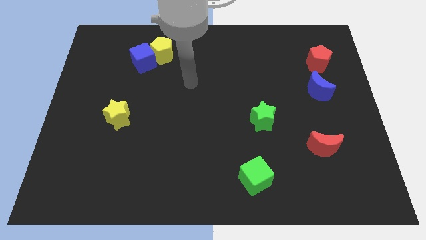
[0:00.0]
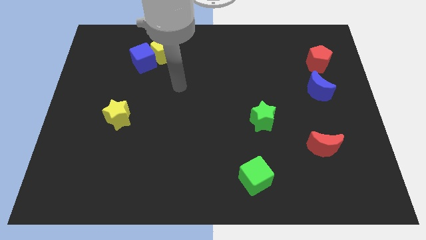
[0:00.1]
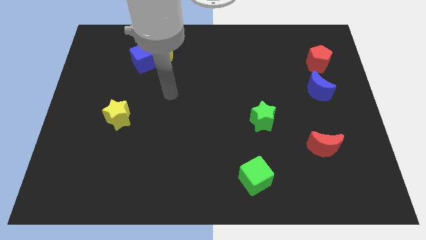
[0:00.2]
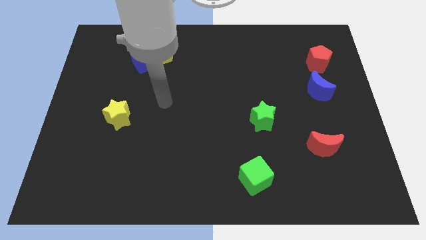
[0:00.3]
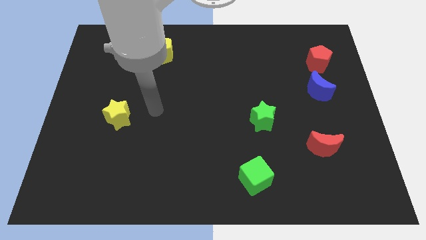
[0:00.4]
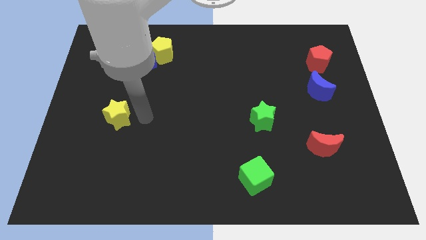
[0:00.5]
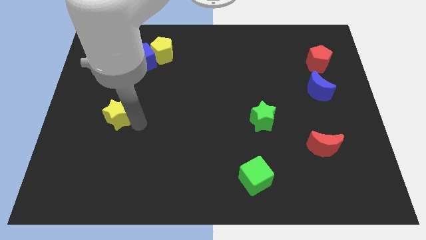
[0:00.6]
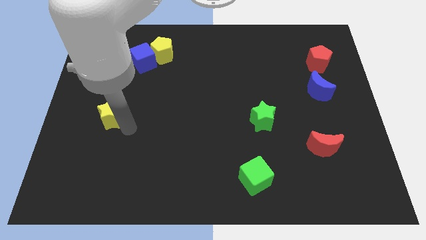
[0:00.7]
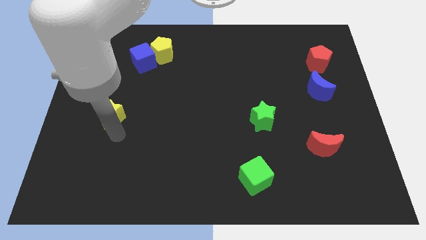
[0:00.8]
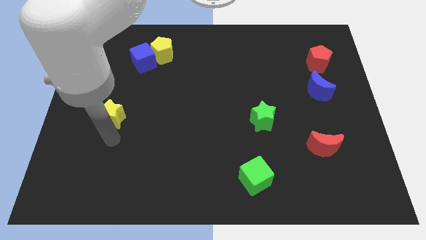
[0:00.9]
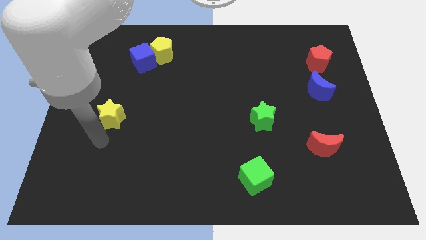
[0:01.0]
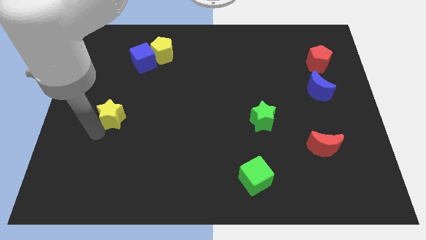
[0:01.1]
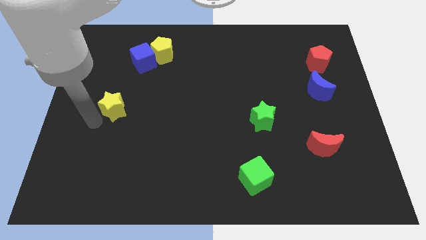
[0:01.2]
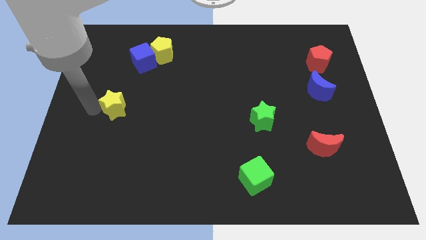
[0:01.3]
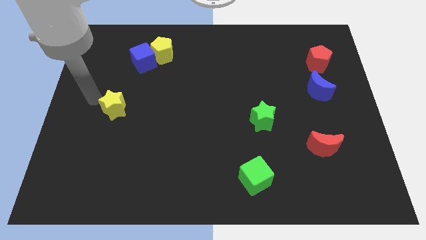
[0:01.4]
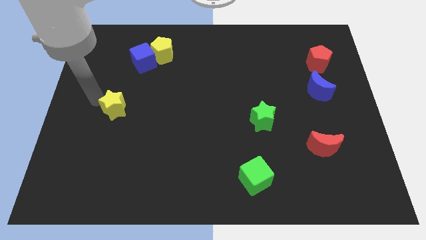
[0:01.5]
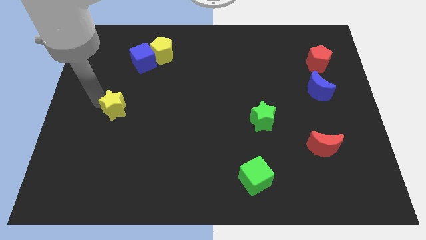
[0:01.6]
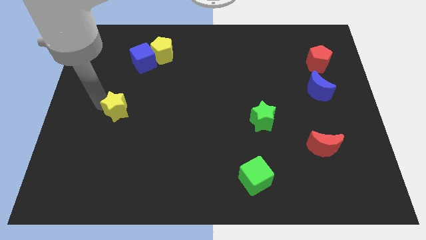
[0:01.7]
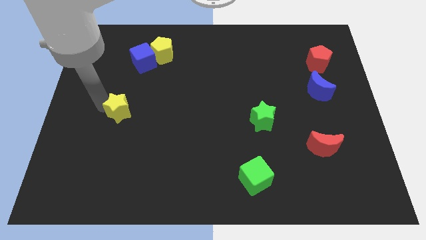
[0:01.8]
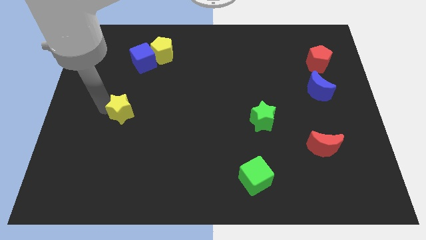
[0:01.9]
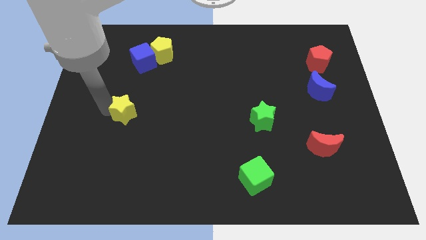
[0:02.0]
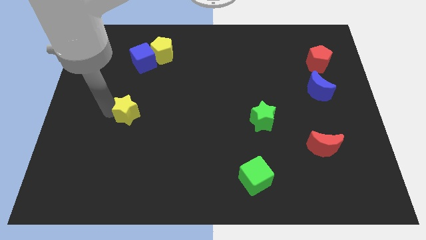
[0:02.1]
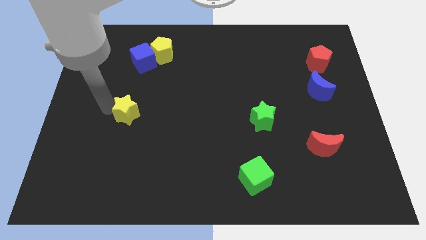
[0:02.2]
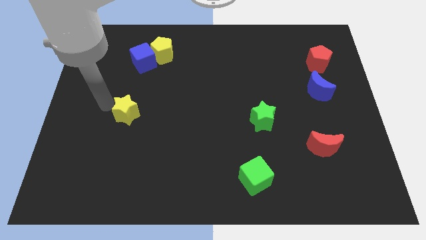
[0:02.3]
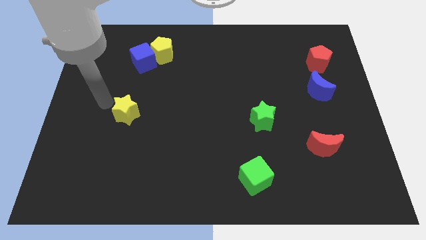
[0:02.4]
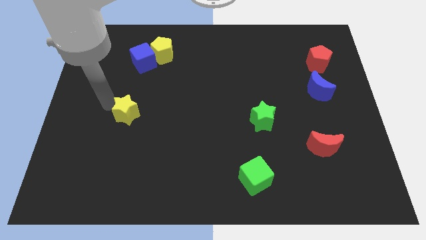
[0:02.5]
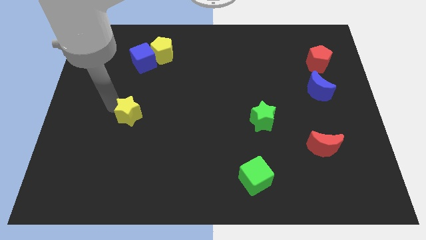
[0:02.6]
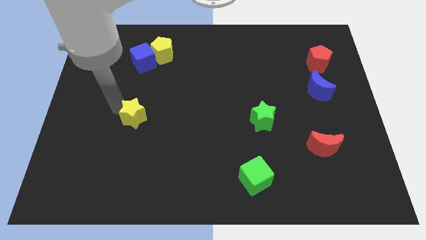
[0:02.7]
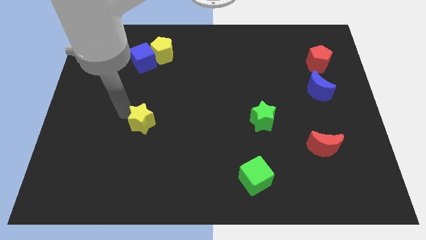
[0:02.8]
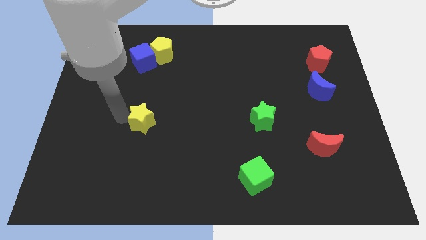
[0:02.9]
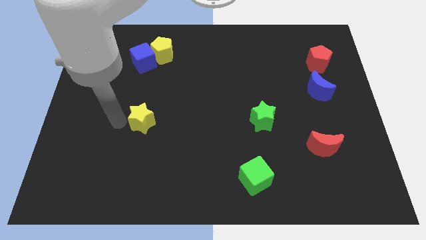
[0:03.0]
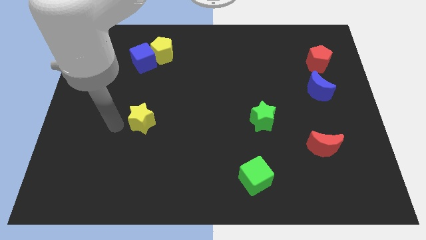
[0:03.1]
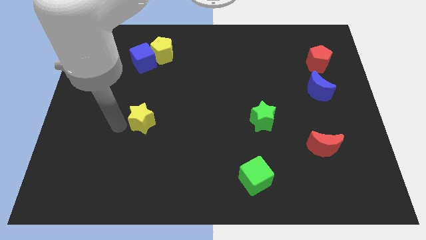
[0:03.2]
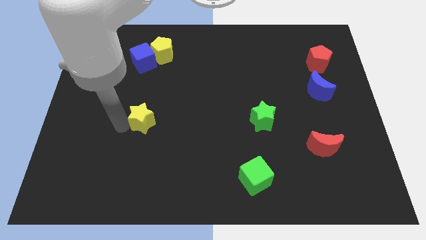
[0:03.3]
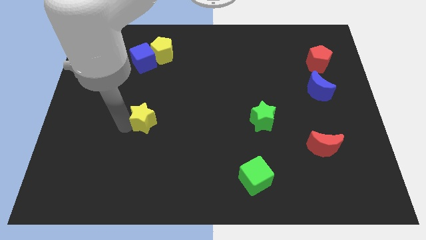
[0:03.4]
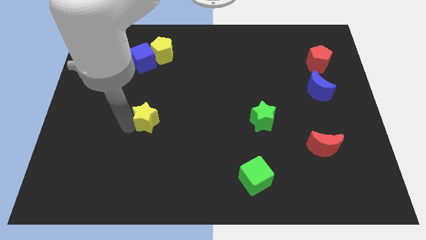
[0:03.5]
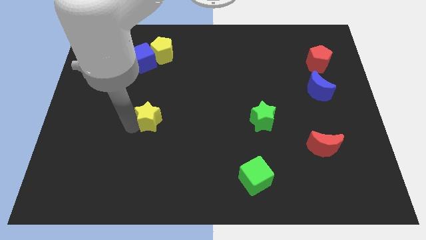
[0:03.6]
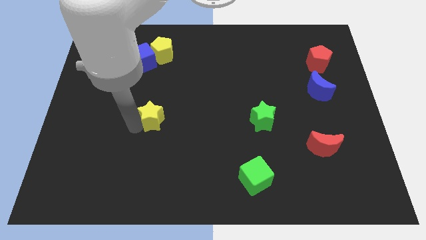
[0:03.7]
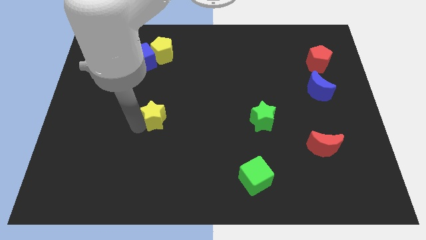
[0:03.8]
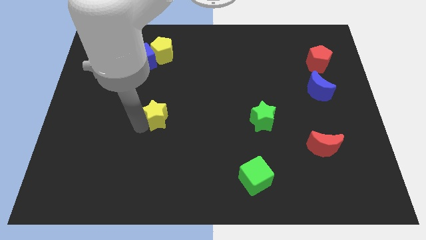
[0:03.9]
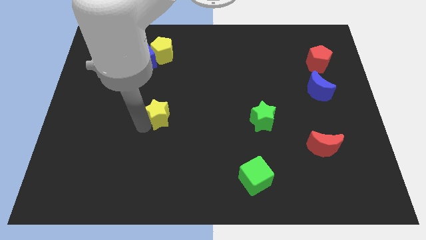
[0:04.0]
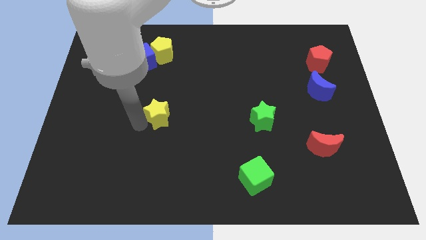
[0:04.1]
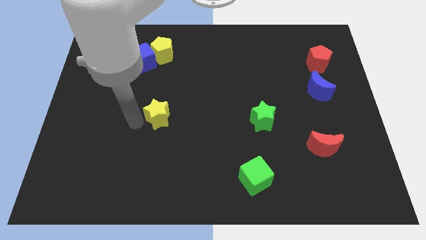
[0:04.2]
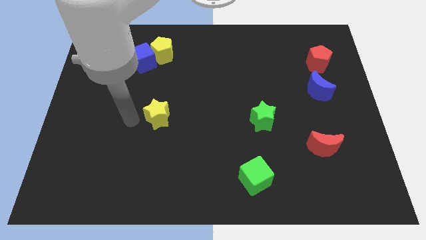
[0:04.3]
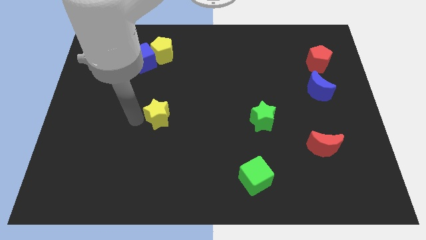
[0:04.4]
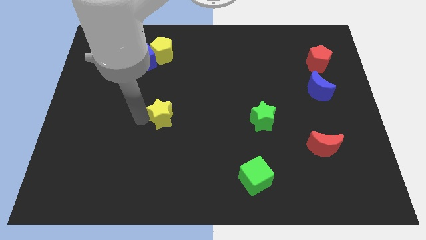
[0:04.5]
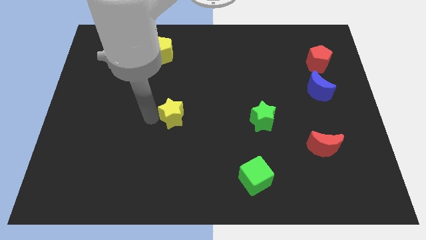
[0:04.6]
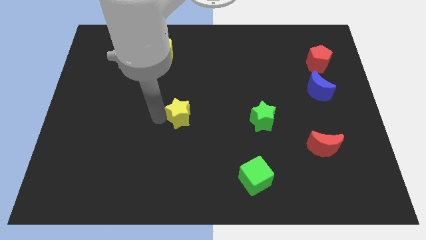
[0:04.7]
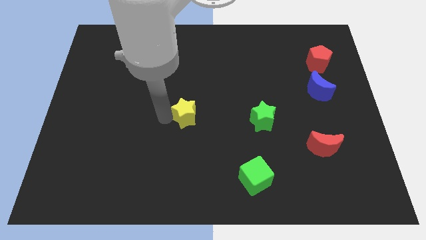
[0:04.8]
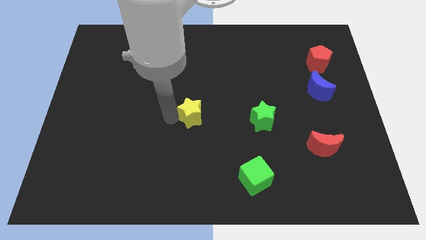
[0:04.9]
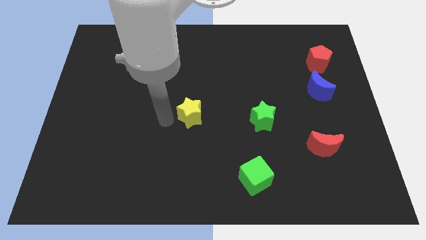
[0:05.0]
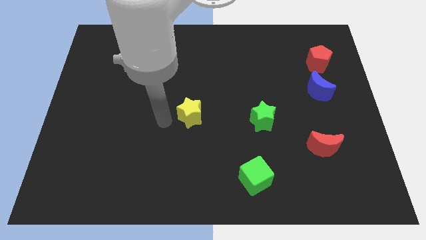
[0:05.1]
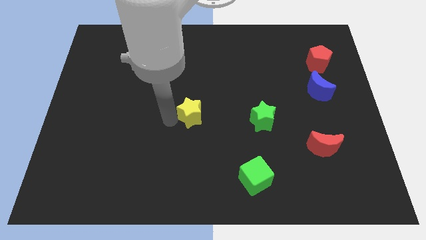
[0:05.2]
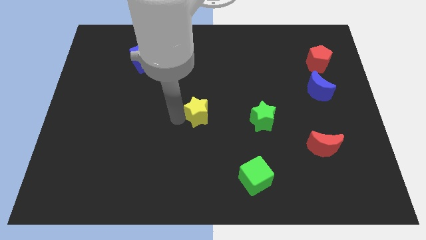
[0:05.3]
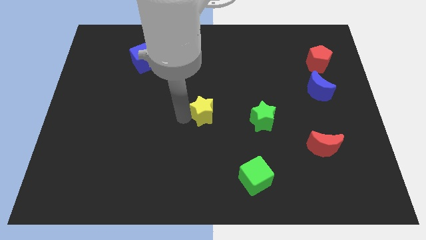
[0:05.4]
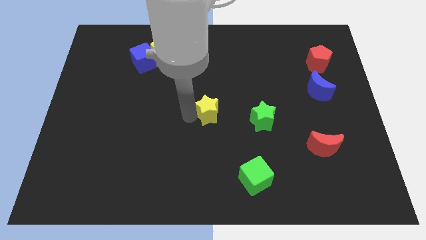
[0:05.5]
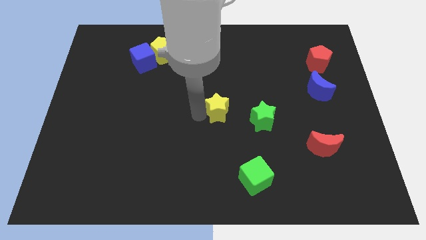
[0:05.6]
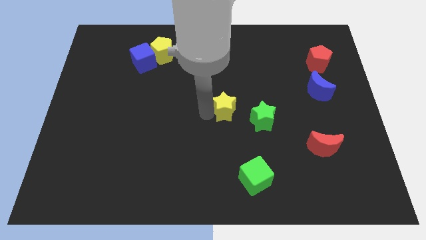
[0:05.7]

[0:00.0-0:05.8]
slide the yellow star diagonally up and to the left of the green star

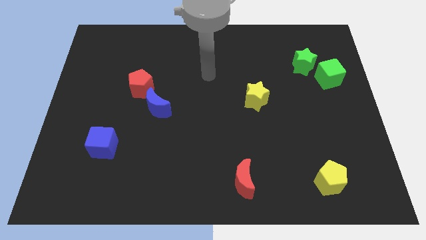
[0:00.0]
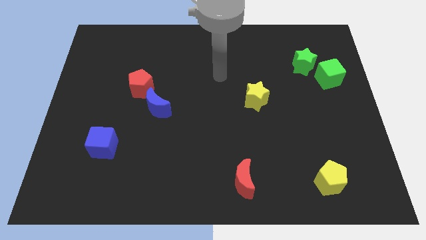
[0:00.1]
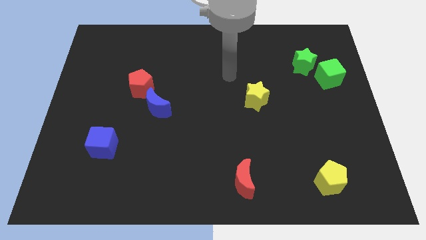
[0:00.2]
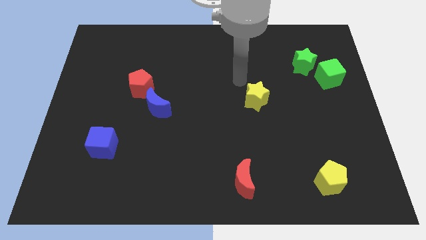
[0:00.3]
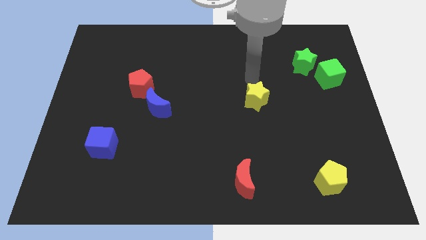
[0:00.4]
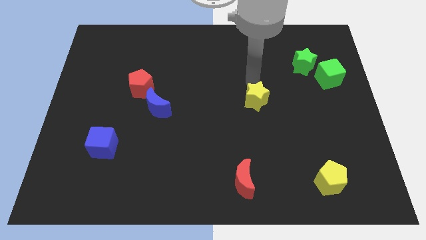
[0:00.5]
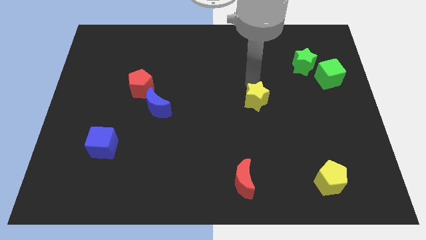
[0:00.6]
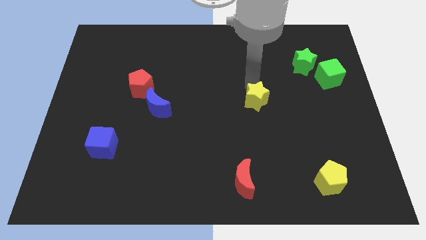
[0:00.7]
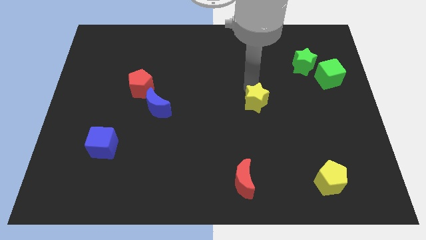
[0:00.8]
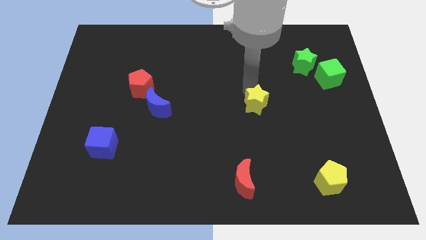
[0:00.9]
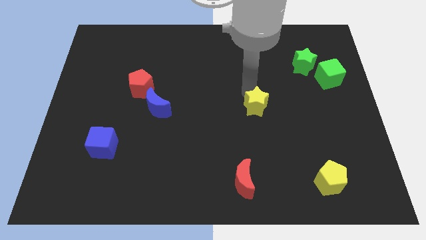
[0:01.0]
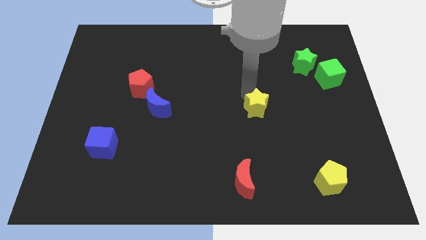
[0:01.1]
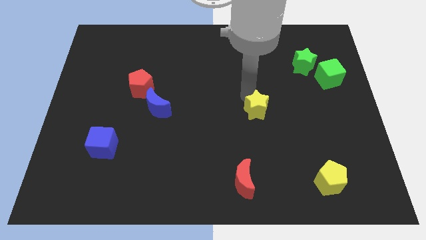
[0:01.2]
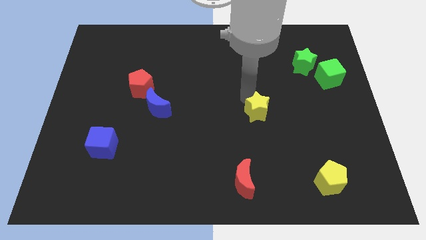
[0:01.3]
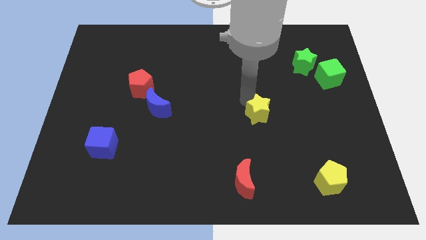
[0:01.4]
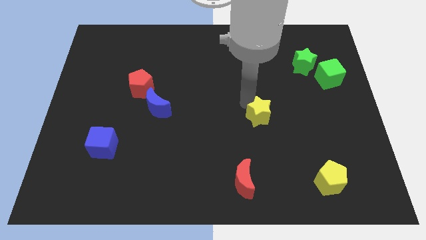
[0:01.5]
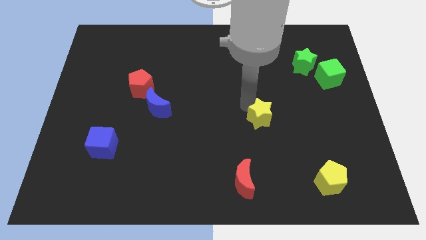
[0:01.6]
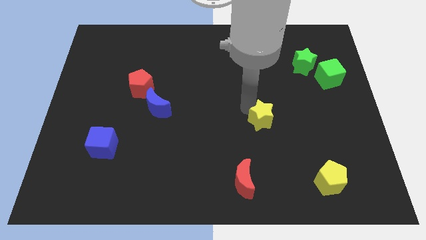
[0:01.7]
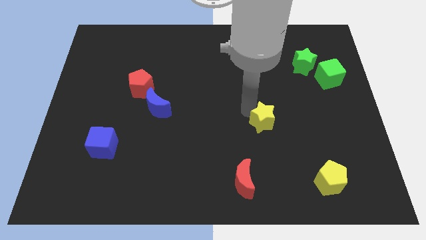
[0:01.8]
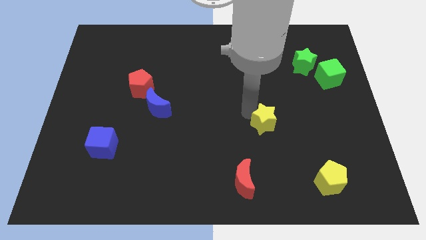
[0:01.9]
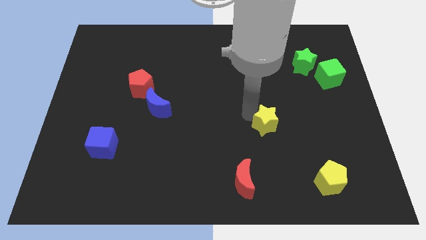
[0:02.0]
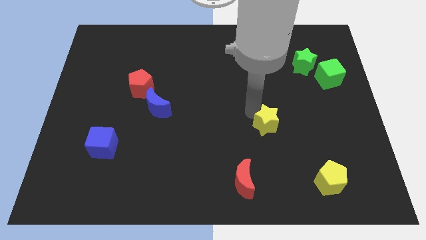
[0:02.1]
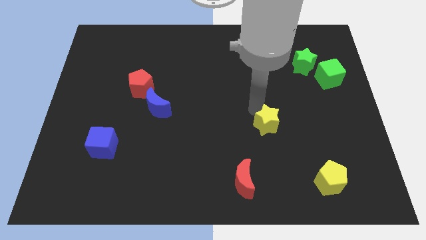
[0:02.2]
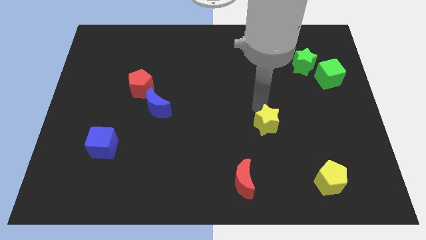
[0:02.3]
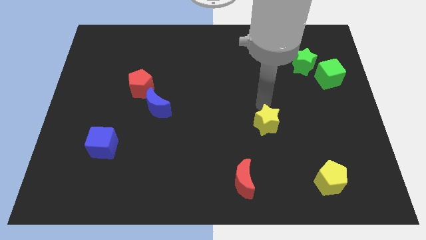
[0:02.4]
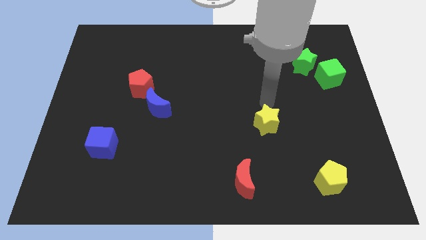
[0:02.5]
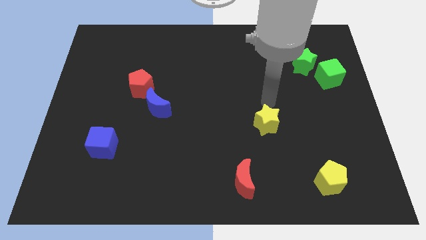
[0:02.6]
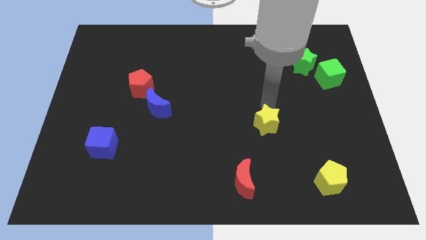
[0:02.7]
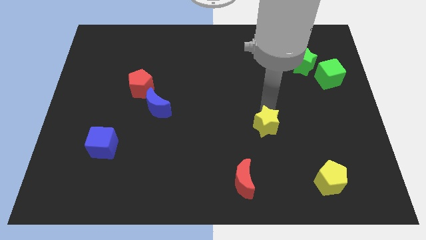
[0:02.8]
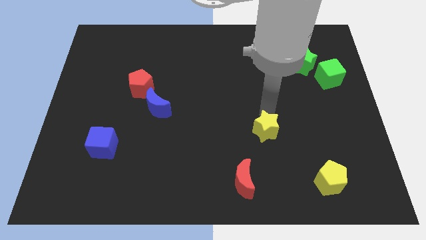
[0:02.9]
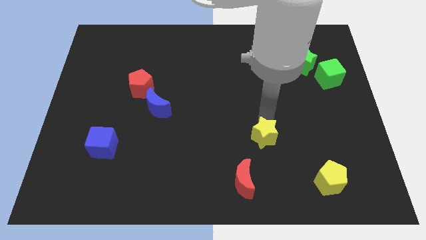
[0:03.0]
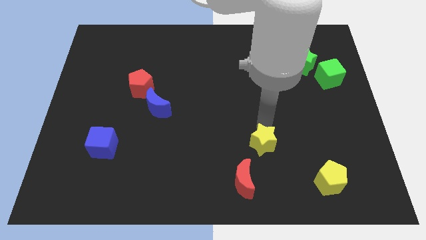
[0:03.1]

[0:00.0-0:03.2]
move the yellow star to the top right of the red moon
